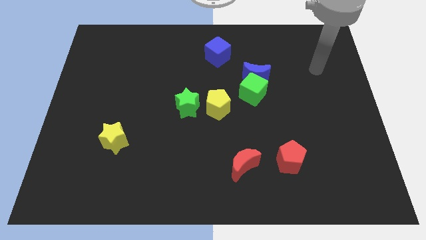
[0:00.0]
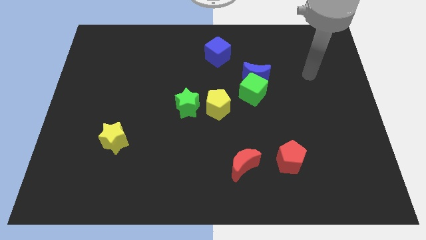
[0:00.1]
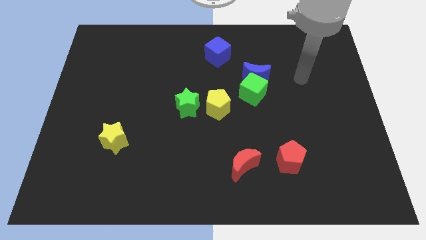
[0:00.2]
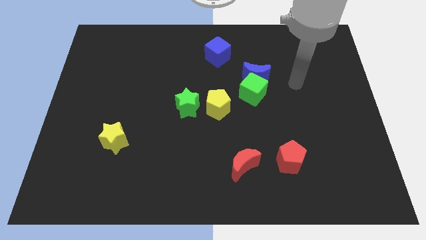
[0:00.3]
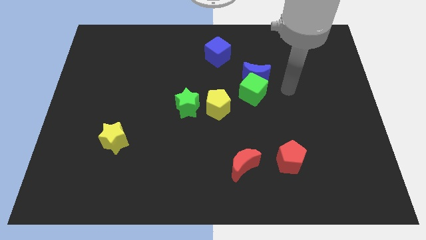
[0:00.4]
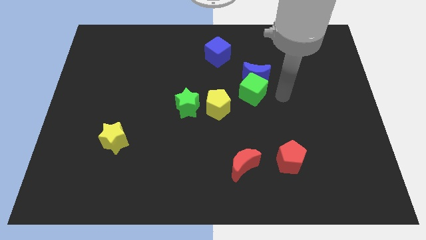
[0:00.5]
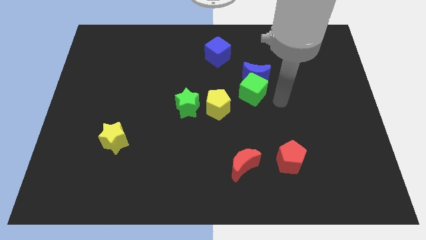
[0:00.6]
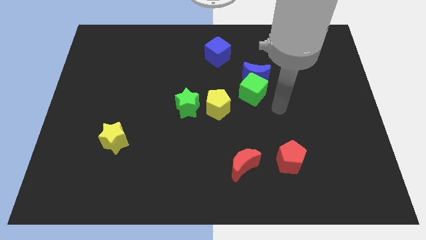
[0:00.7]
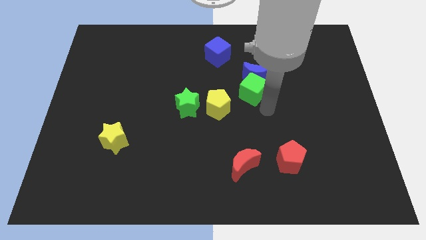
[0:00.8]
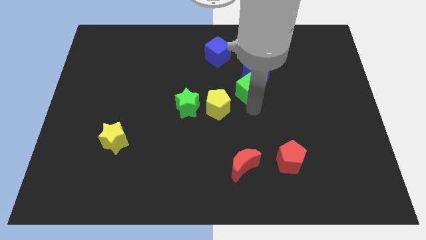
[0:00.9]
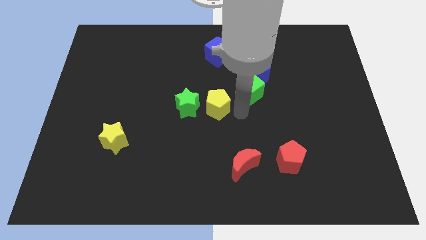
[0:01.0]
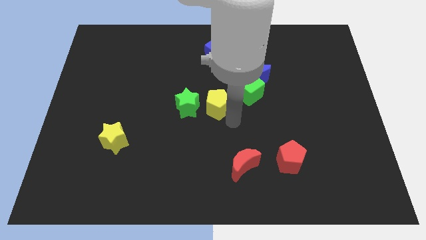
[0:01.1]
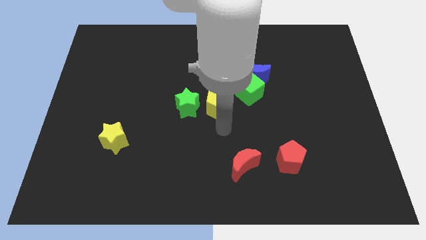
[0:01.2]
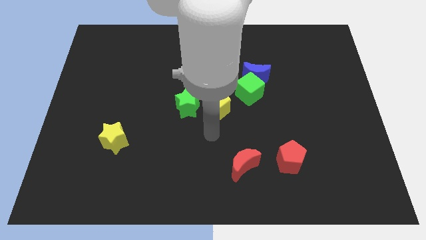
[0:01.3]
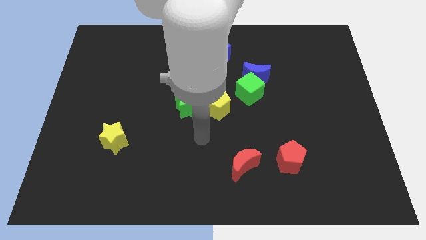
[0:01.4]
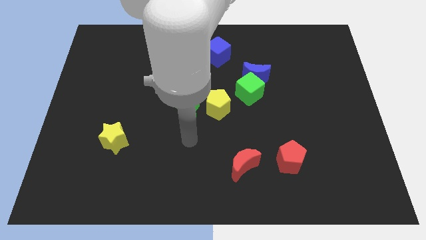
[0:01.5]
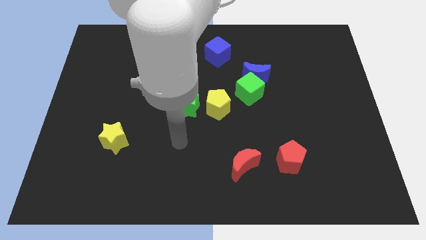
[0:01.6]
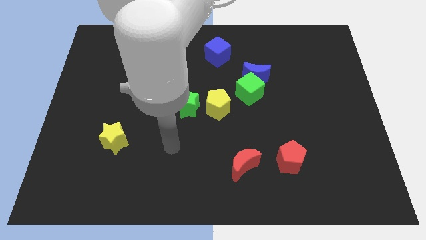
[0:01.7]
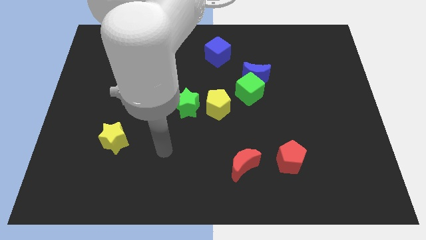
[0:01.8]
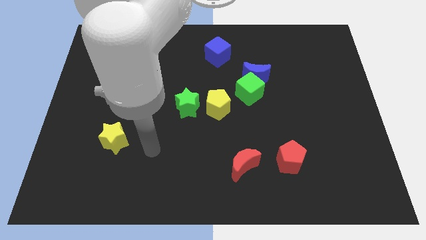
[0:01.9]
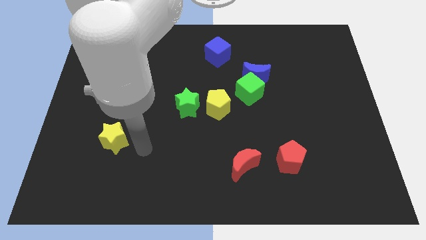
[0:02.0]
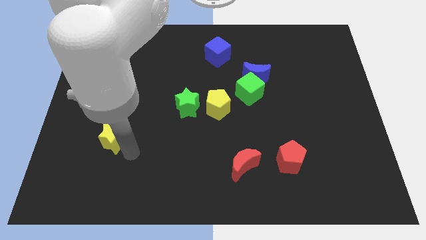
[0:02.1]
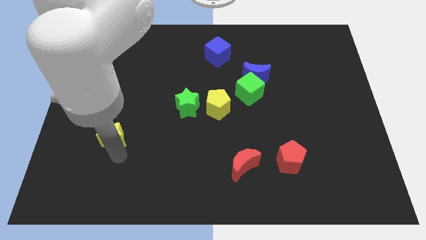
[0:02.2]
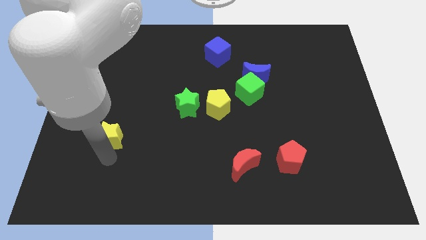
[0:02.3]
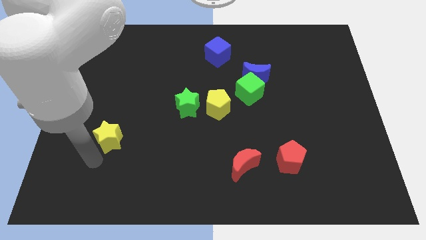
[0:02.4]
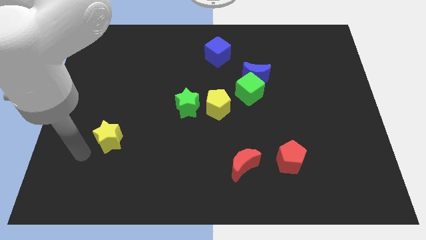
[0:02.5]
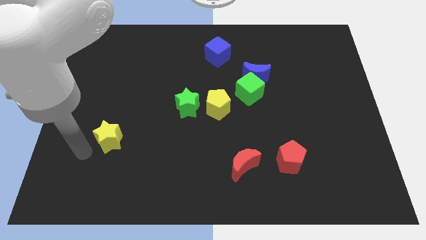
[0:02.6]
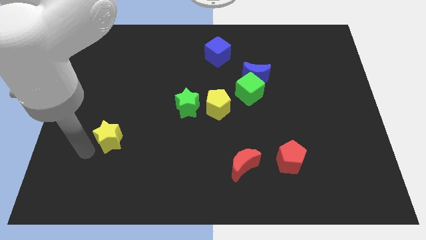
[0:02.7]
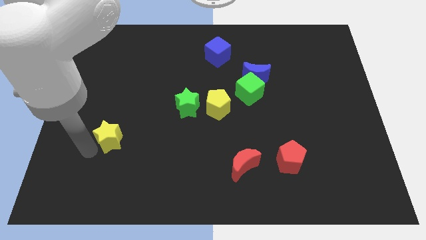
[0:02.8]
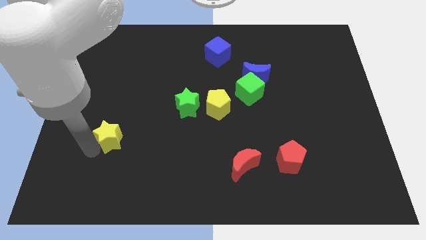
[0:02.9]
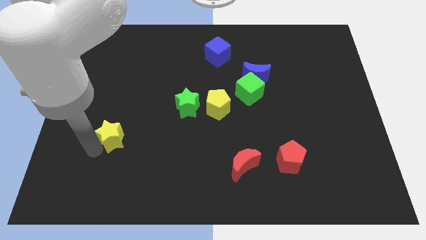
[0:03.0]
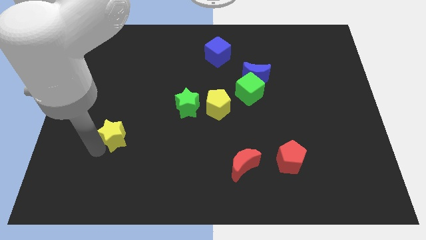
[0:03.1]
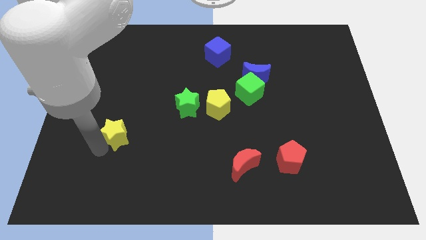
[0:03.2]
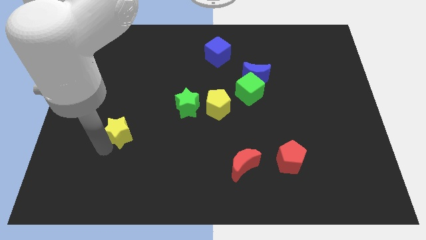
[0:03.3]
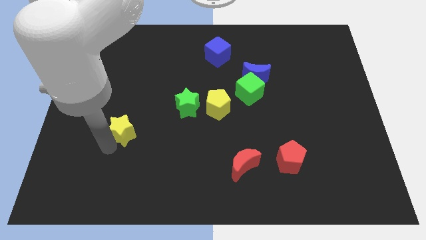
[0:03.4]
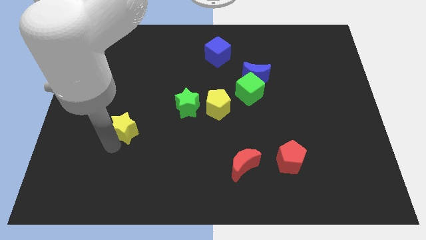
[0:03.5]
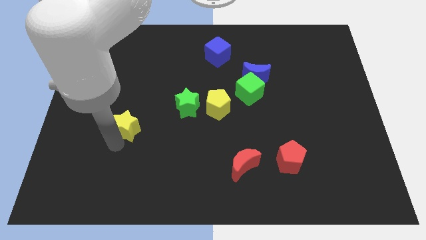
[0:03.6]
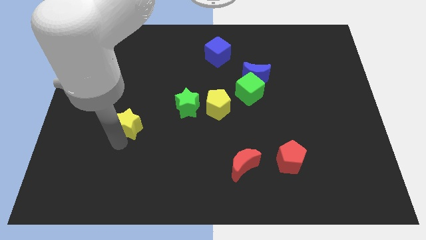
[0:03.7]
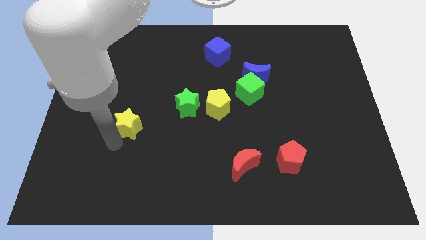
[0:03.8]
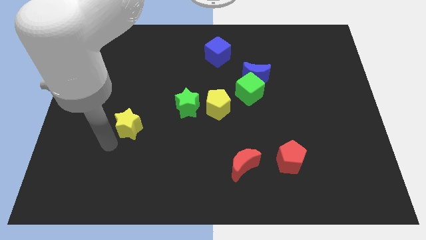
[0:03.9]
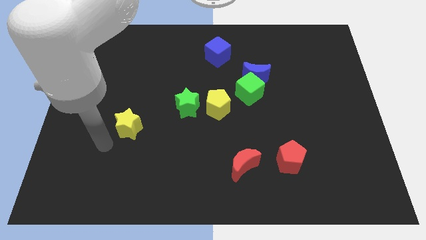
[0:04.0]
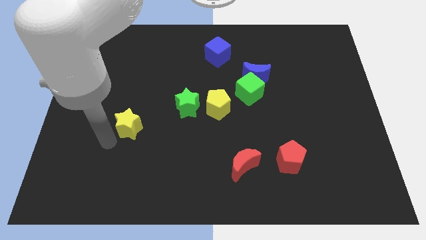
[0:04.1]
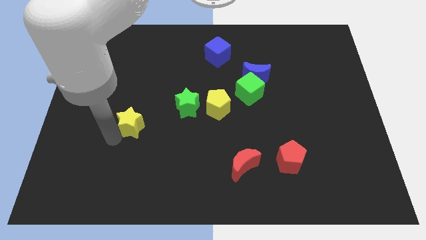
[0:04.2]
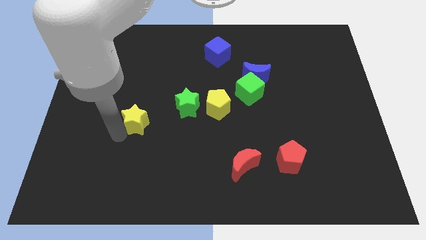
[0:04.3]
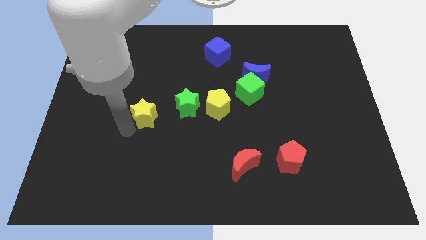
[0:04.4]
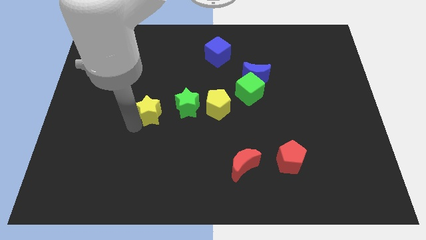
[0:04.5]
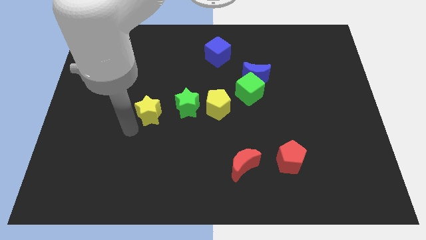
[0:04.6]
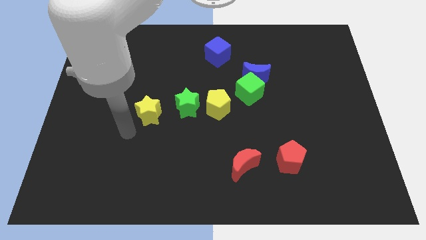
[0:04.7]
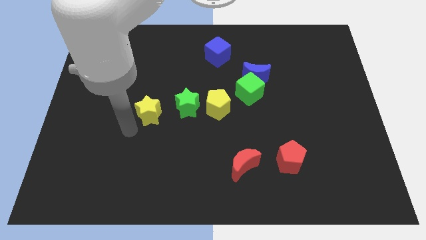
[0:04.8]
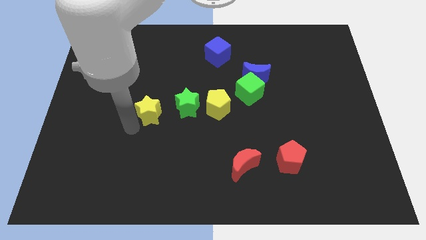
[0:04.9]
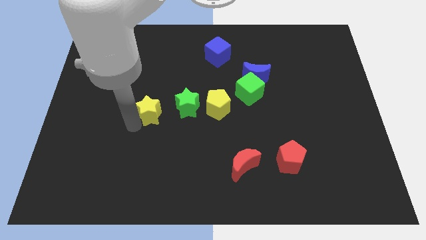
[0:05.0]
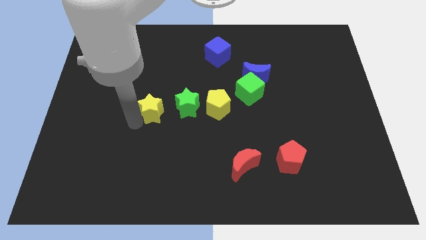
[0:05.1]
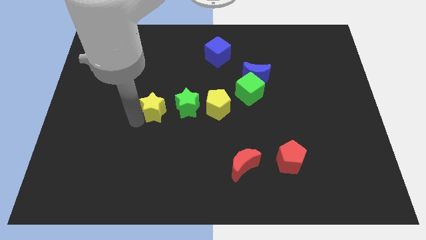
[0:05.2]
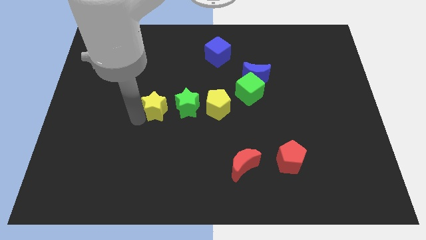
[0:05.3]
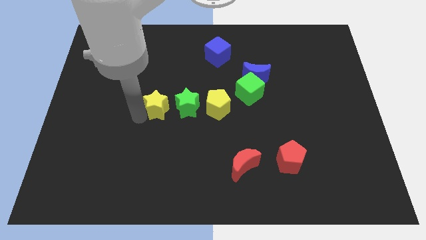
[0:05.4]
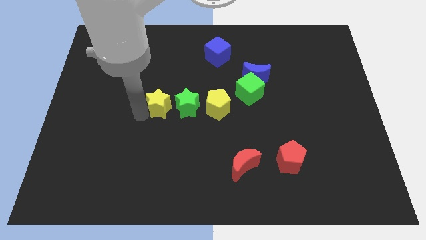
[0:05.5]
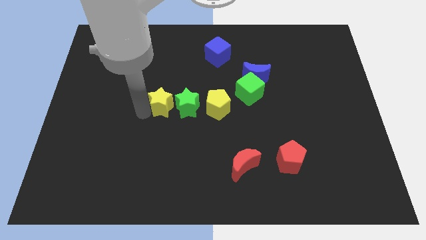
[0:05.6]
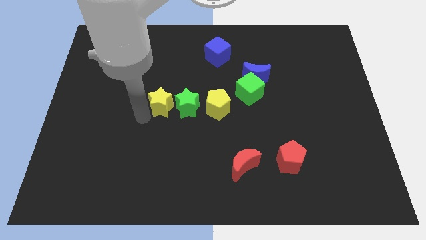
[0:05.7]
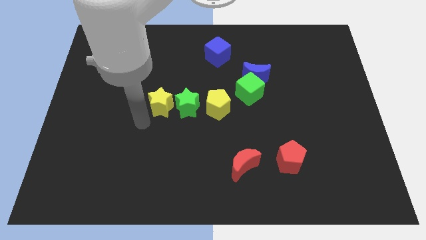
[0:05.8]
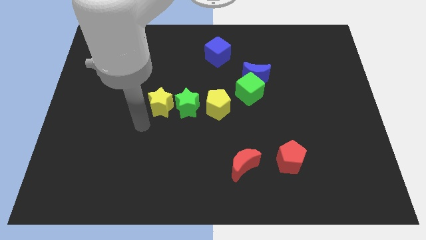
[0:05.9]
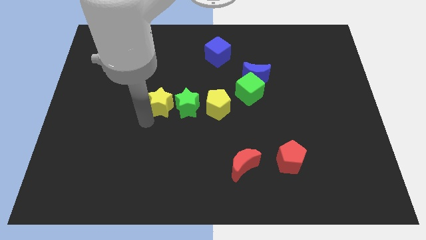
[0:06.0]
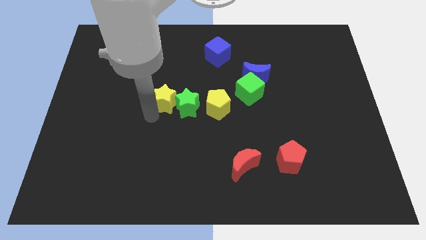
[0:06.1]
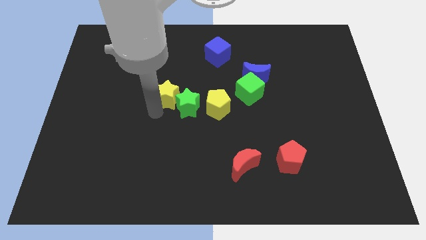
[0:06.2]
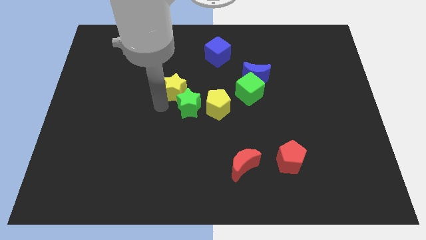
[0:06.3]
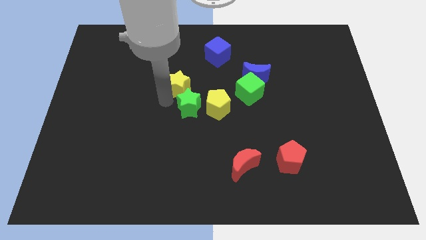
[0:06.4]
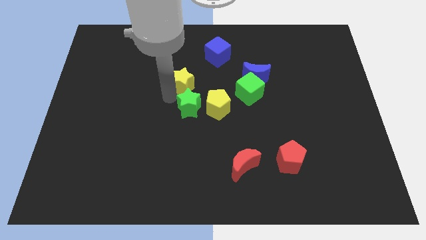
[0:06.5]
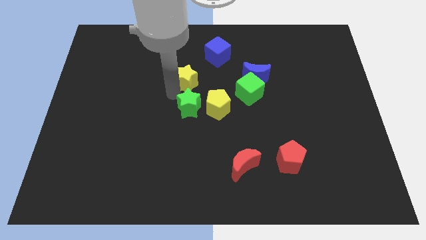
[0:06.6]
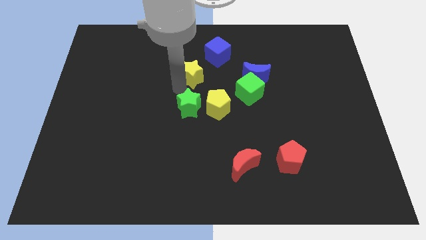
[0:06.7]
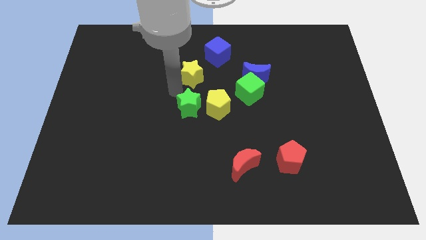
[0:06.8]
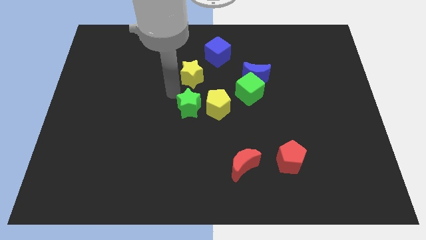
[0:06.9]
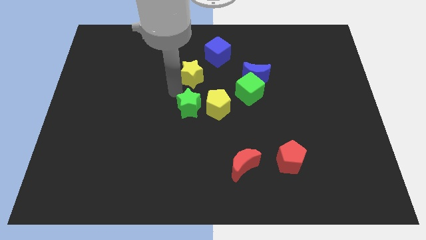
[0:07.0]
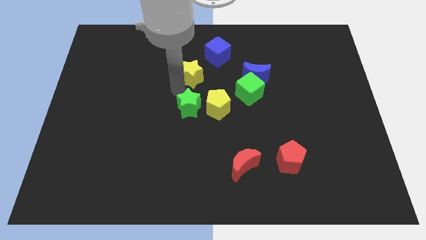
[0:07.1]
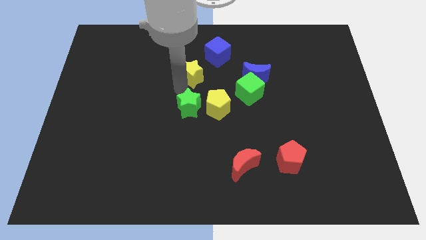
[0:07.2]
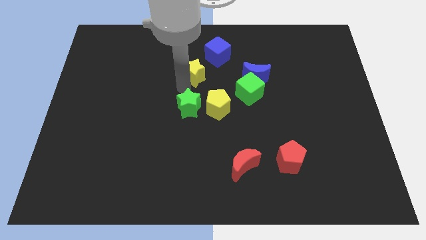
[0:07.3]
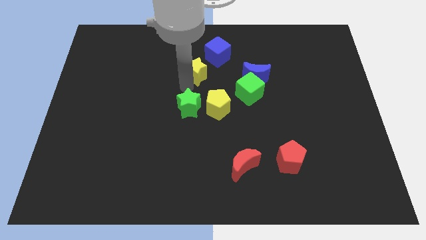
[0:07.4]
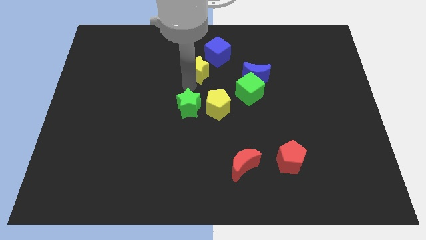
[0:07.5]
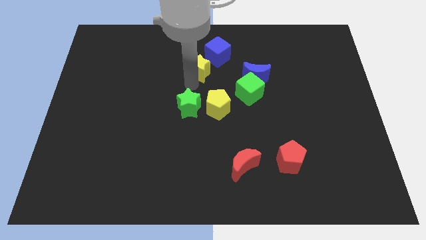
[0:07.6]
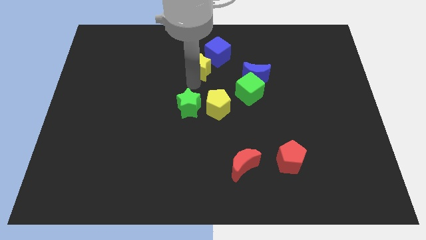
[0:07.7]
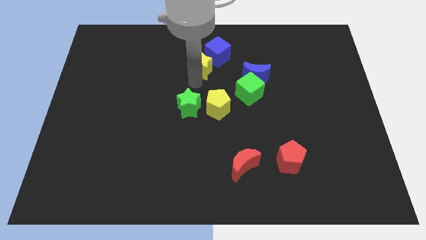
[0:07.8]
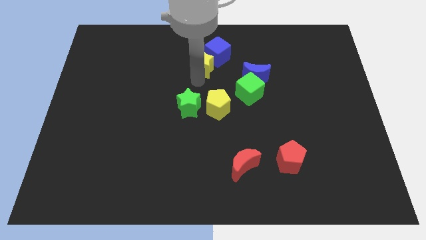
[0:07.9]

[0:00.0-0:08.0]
slide the yellow star next to the blue cube
